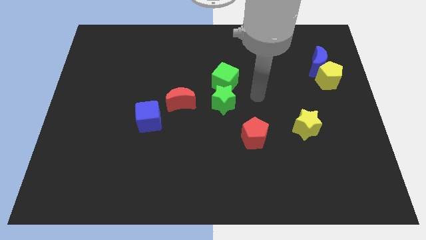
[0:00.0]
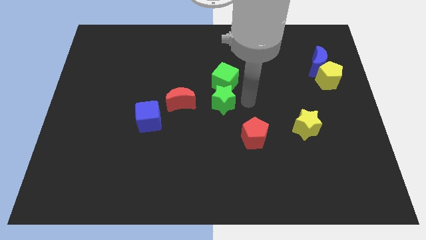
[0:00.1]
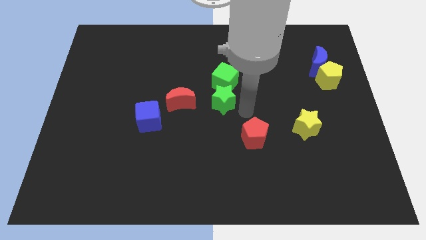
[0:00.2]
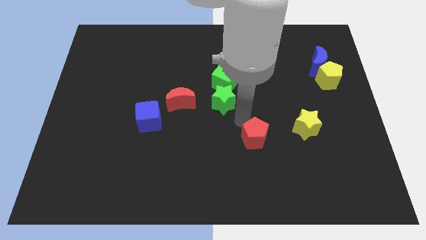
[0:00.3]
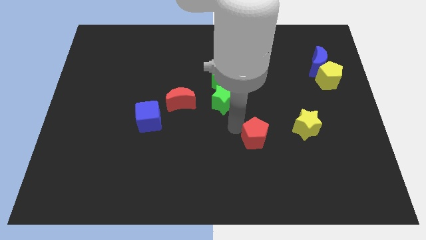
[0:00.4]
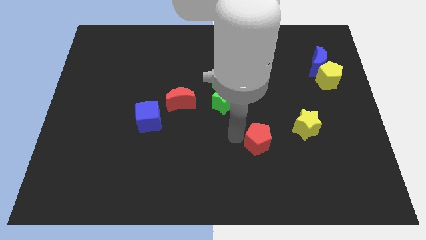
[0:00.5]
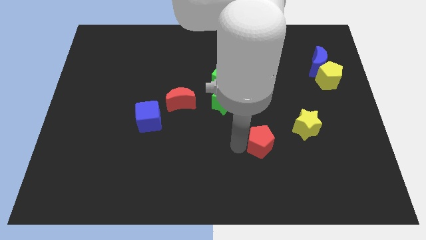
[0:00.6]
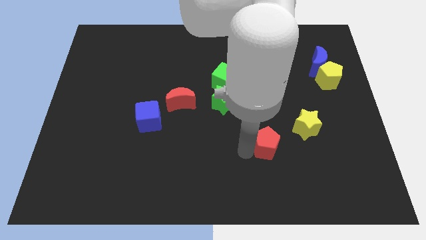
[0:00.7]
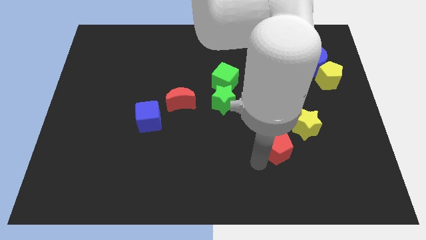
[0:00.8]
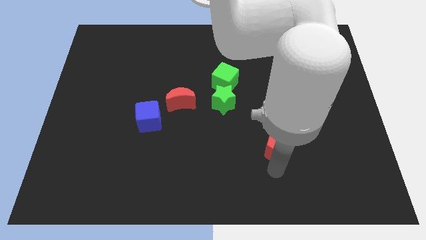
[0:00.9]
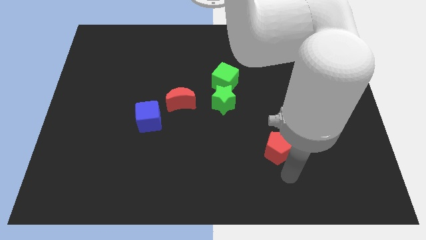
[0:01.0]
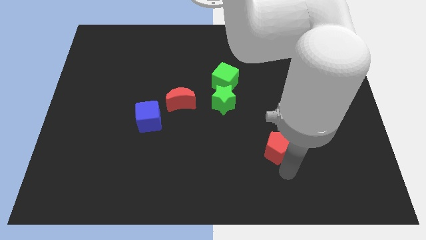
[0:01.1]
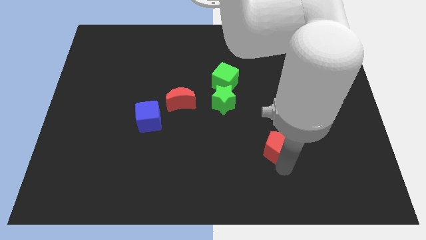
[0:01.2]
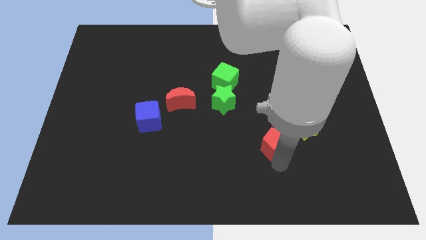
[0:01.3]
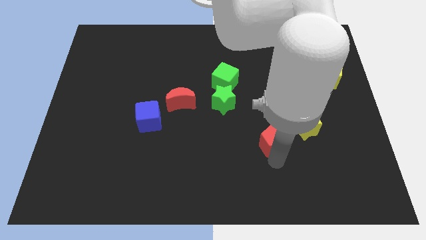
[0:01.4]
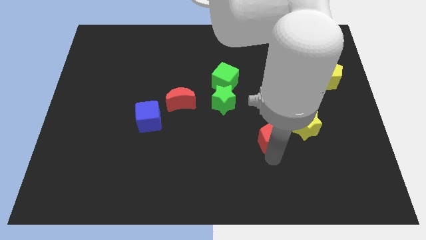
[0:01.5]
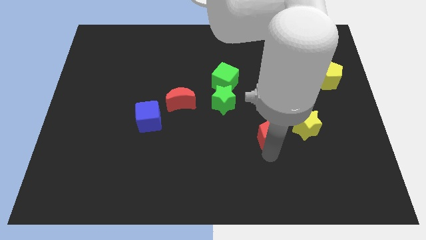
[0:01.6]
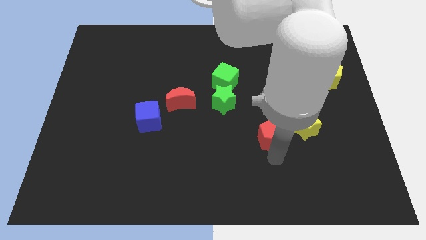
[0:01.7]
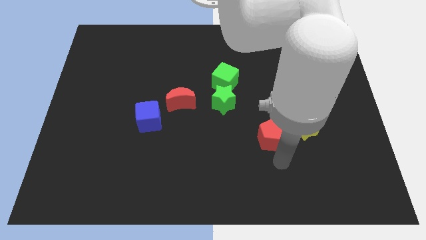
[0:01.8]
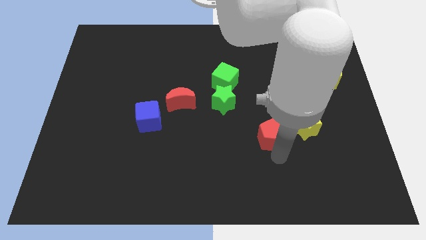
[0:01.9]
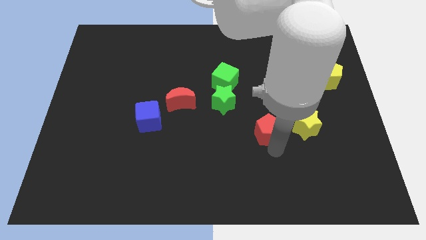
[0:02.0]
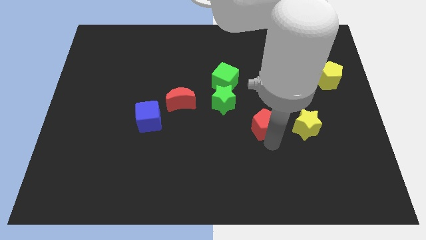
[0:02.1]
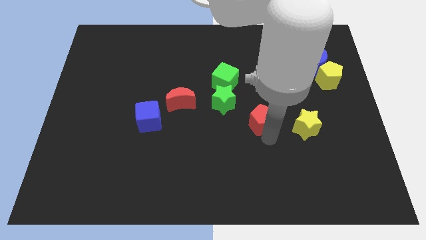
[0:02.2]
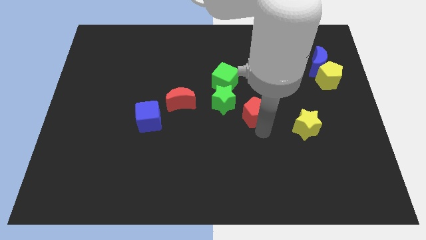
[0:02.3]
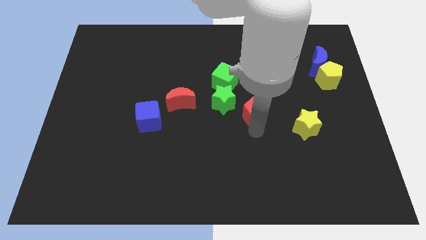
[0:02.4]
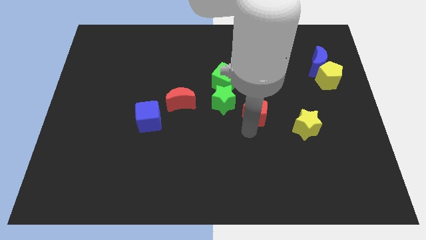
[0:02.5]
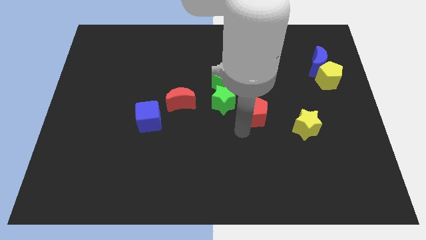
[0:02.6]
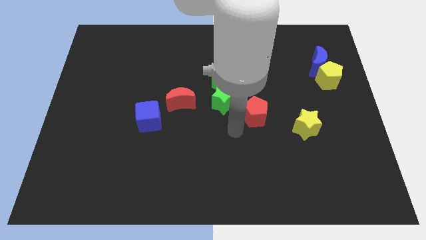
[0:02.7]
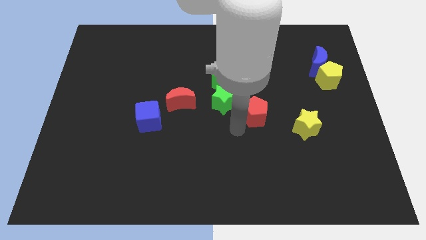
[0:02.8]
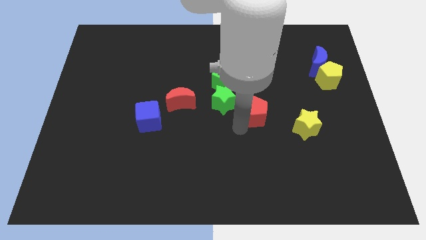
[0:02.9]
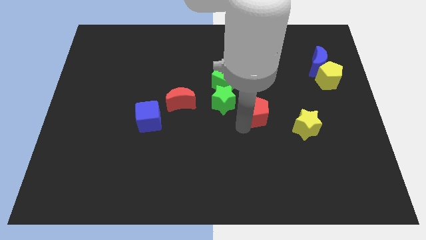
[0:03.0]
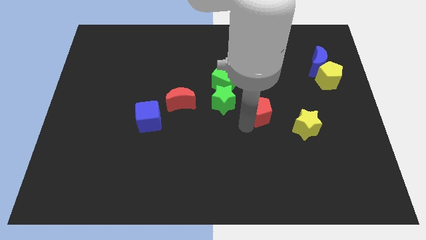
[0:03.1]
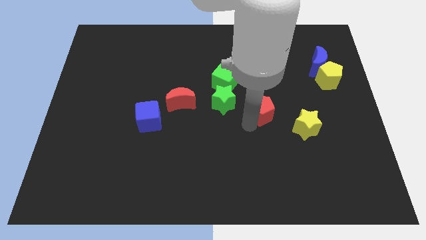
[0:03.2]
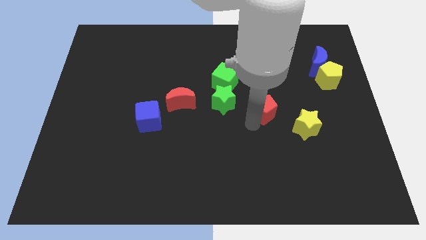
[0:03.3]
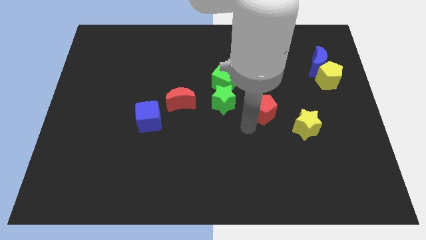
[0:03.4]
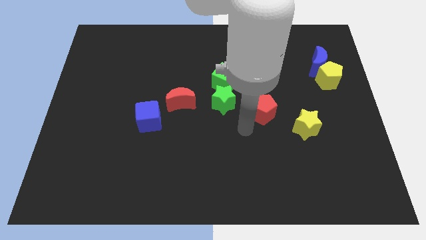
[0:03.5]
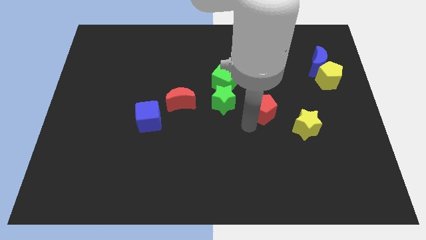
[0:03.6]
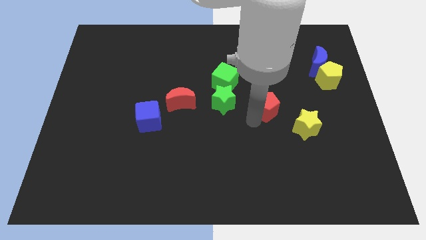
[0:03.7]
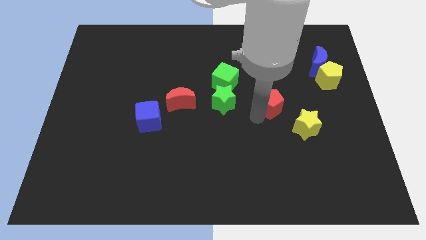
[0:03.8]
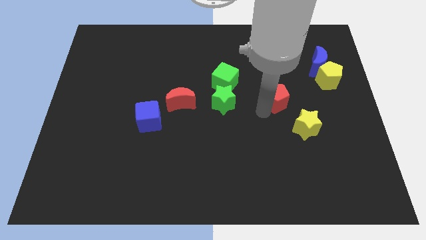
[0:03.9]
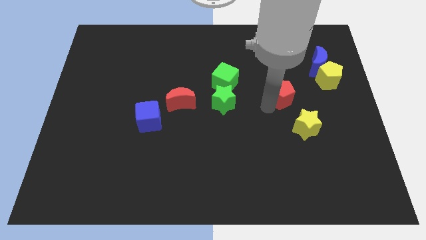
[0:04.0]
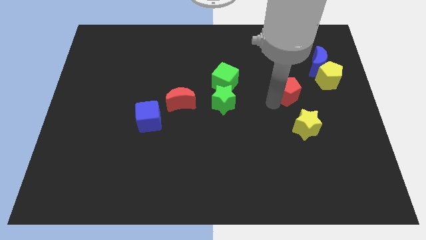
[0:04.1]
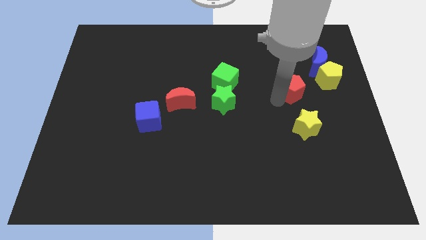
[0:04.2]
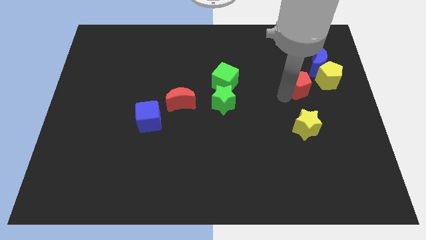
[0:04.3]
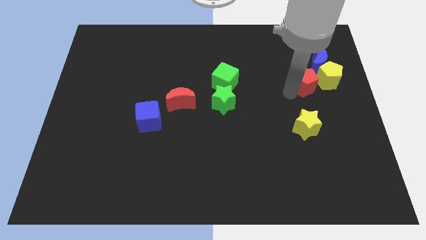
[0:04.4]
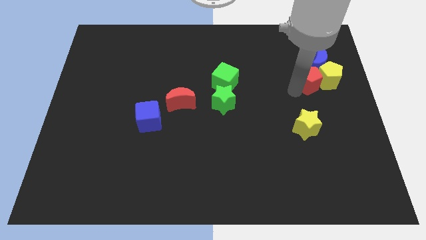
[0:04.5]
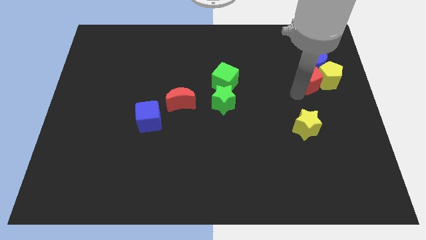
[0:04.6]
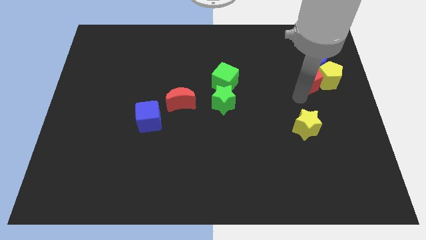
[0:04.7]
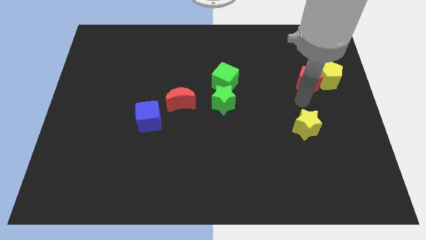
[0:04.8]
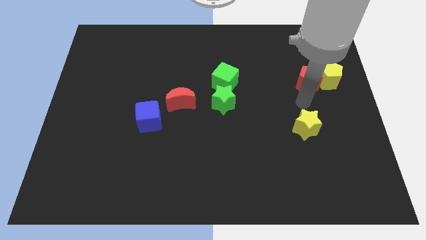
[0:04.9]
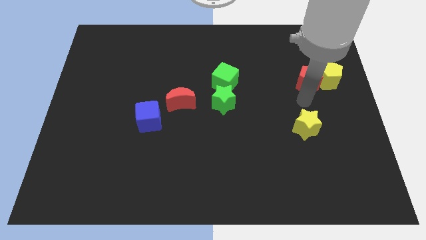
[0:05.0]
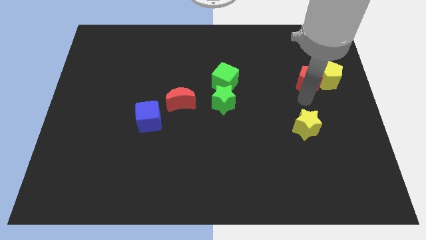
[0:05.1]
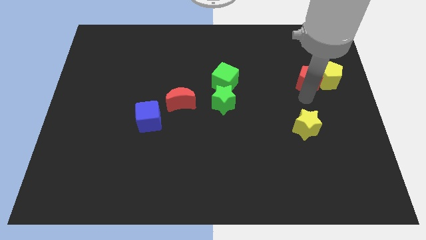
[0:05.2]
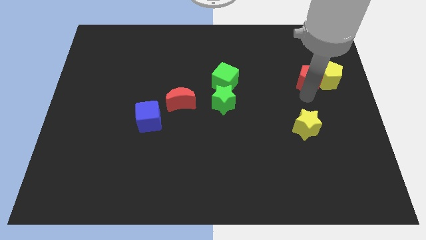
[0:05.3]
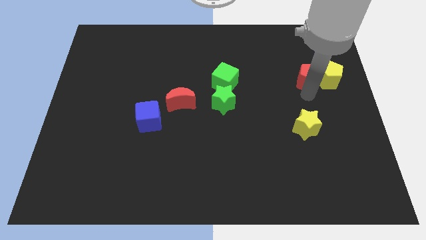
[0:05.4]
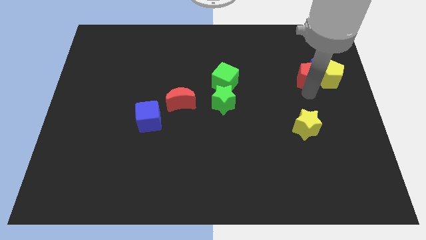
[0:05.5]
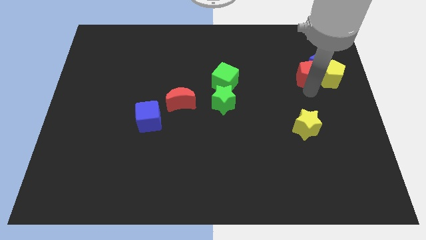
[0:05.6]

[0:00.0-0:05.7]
move the red pentagon towards the blue moon

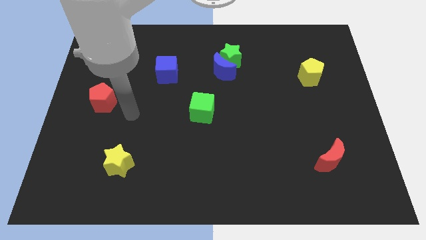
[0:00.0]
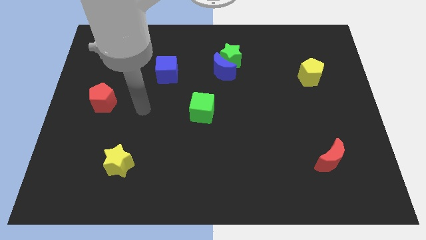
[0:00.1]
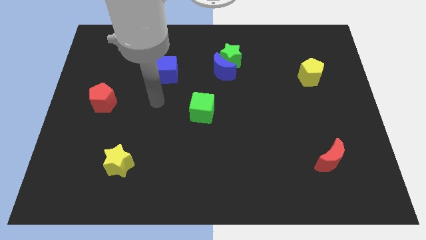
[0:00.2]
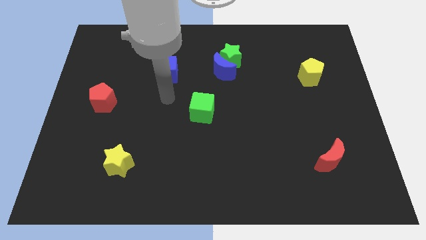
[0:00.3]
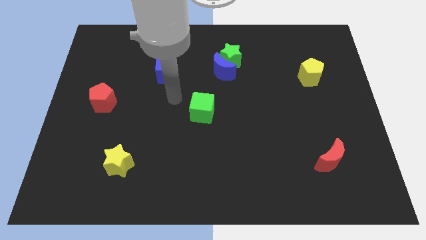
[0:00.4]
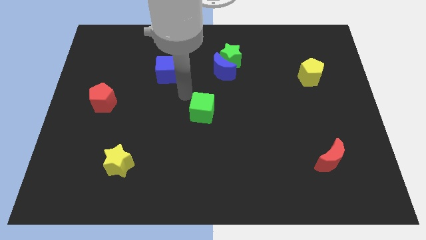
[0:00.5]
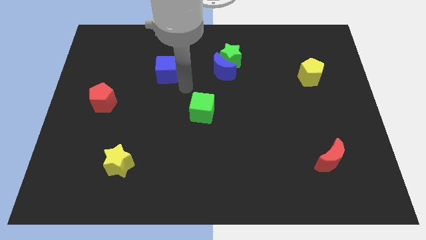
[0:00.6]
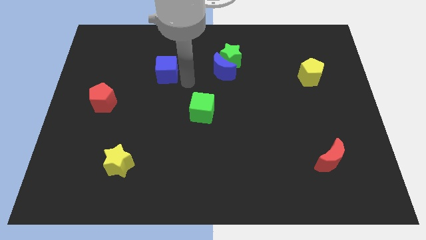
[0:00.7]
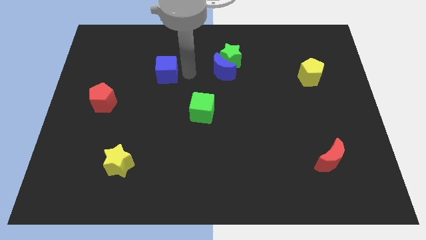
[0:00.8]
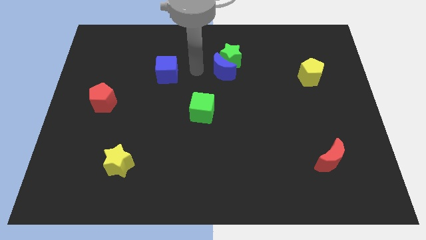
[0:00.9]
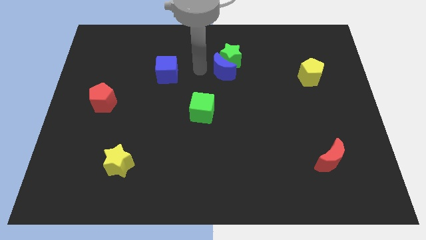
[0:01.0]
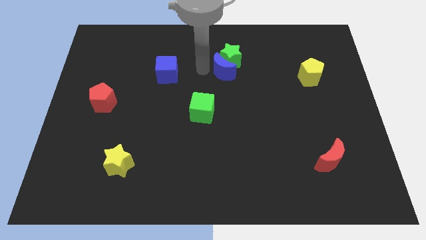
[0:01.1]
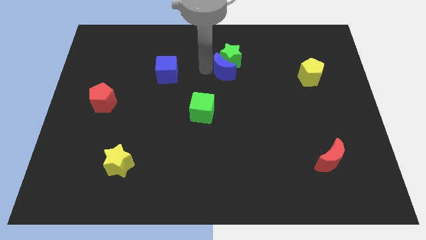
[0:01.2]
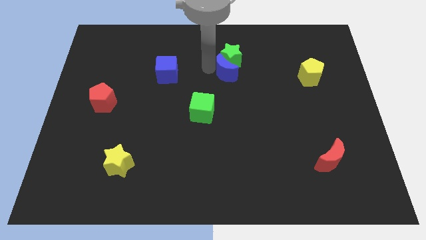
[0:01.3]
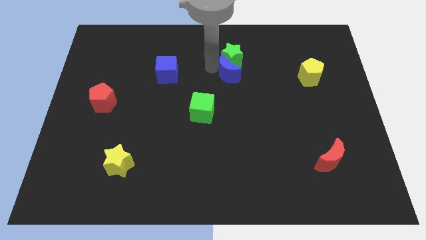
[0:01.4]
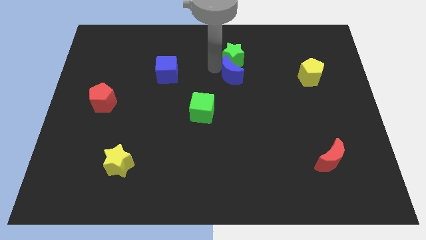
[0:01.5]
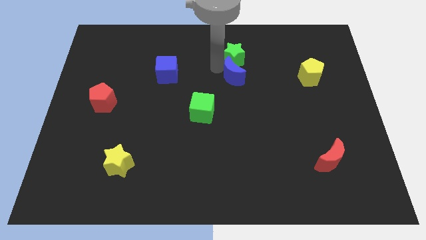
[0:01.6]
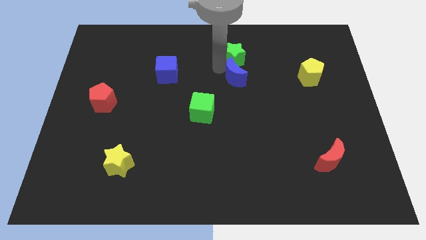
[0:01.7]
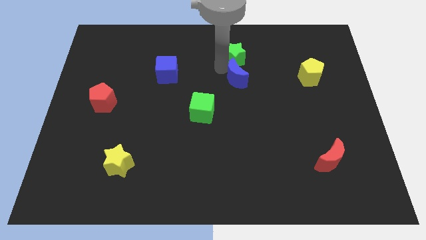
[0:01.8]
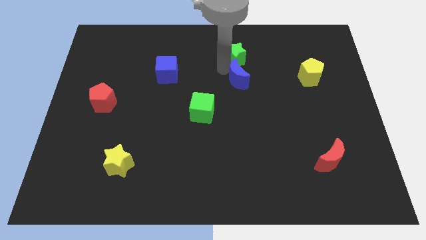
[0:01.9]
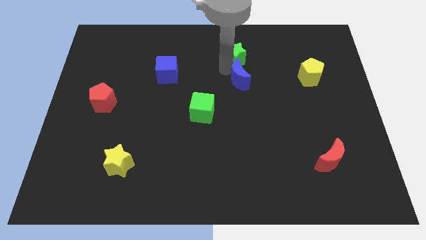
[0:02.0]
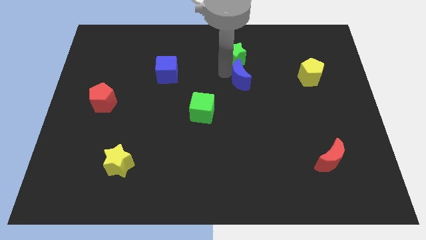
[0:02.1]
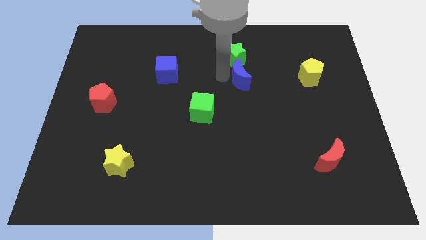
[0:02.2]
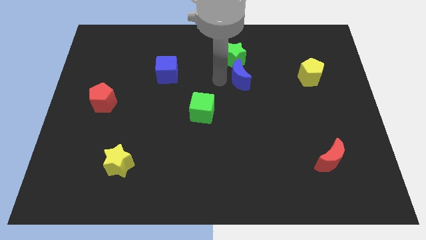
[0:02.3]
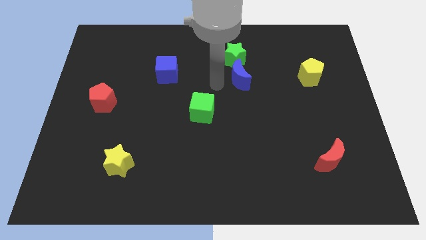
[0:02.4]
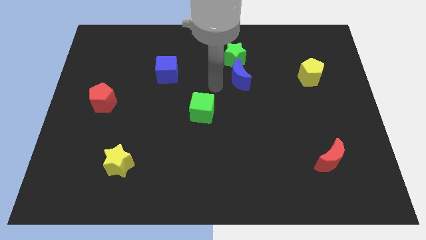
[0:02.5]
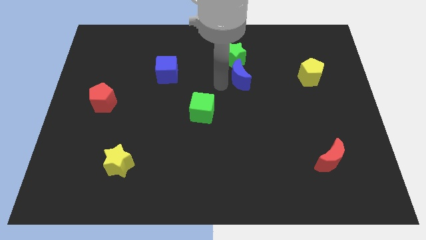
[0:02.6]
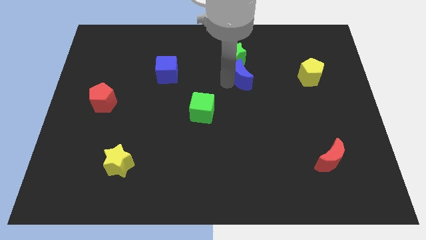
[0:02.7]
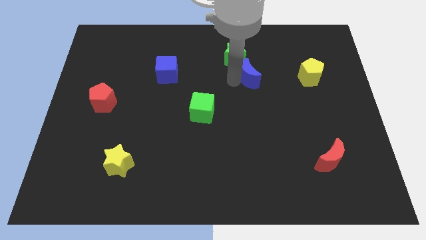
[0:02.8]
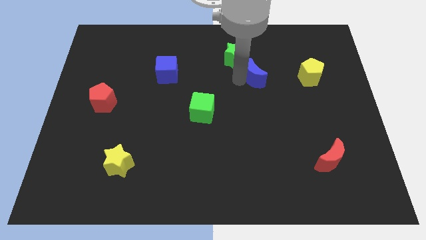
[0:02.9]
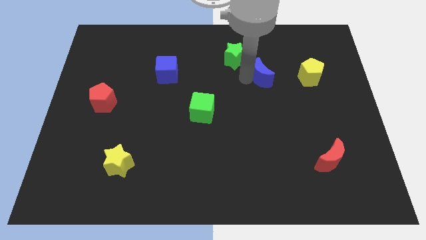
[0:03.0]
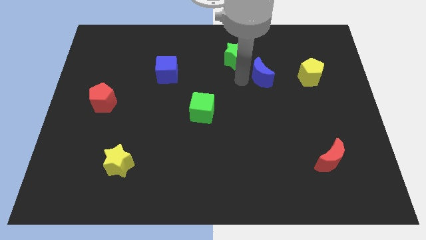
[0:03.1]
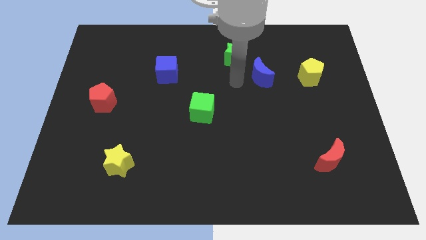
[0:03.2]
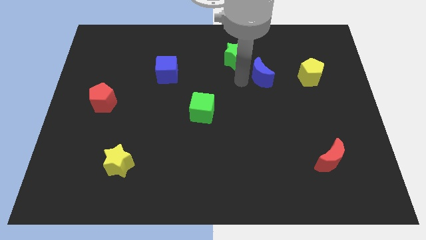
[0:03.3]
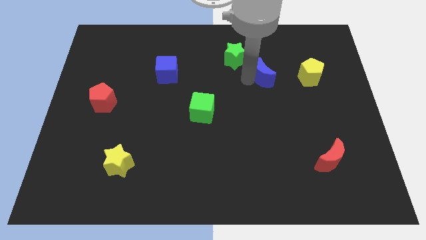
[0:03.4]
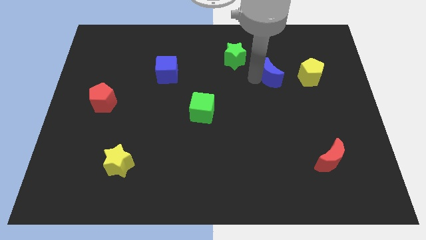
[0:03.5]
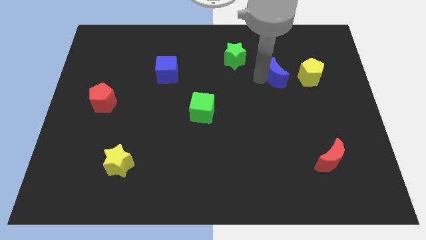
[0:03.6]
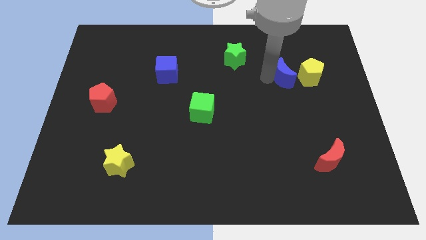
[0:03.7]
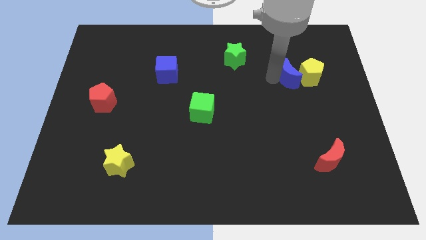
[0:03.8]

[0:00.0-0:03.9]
put the blue moon close to the yellow pentagon
